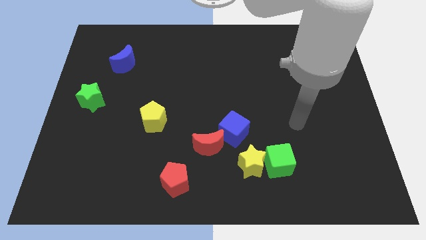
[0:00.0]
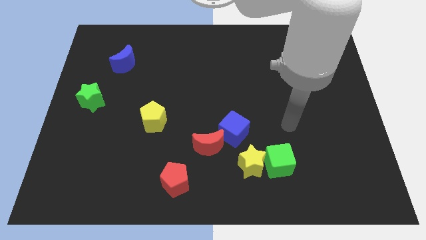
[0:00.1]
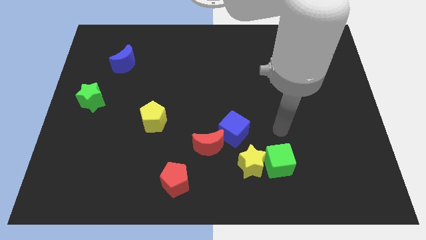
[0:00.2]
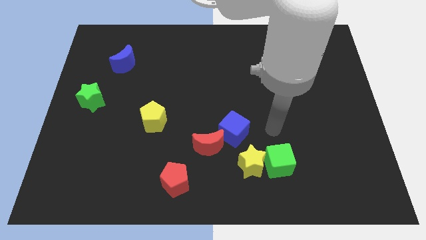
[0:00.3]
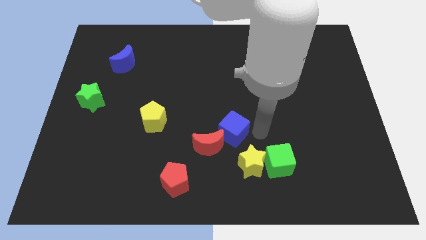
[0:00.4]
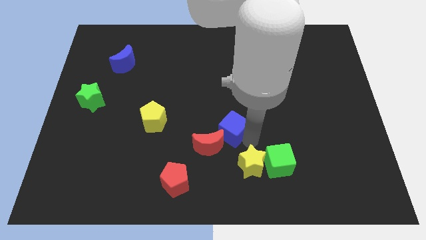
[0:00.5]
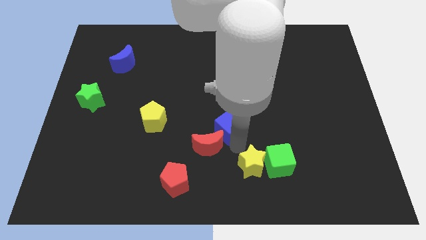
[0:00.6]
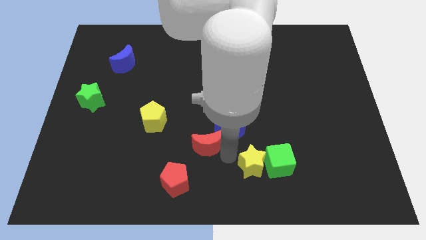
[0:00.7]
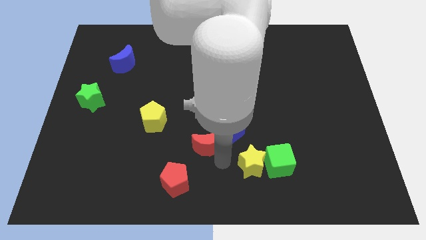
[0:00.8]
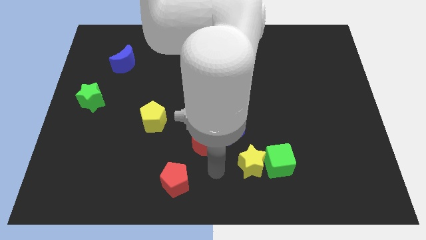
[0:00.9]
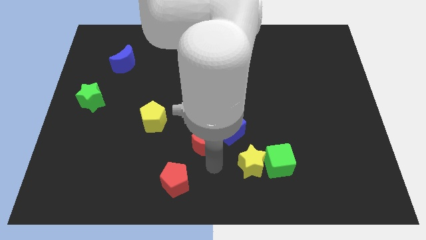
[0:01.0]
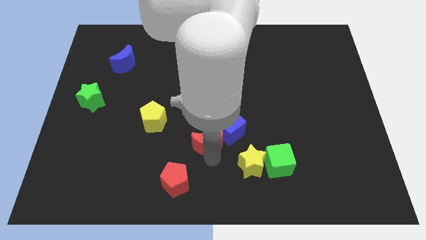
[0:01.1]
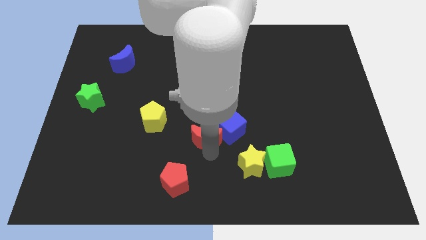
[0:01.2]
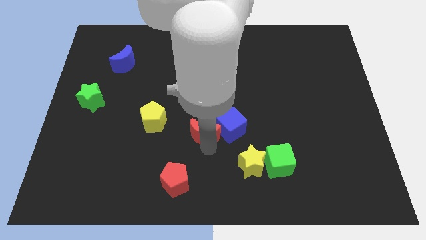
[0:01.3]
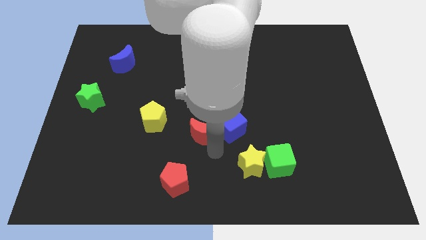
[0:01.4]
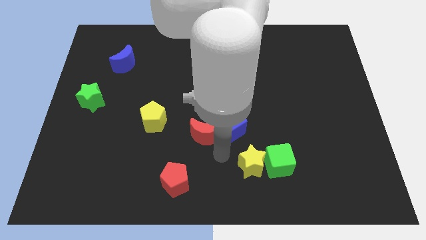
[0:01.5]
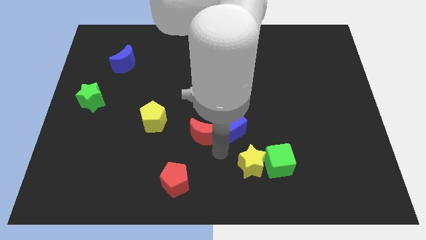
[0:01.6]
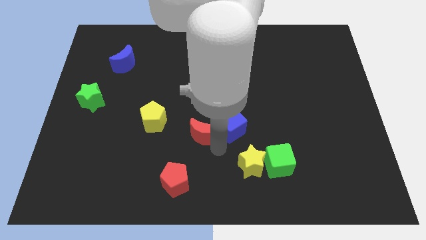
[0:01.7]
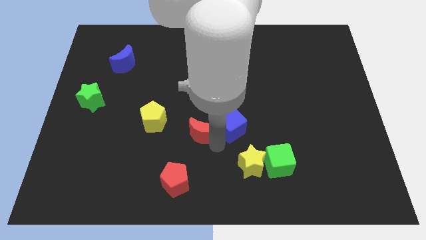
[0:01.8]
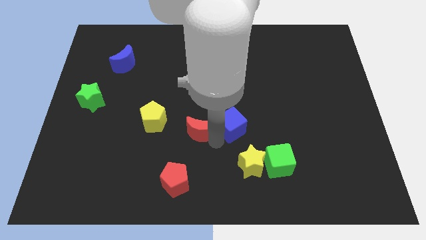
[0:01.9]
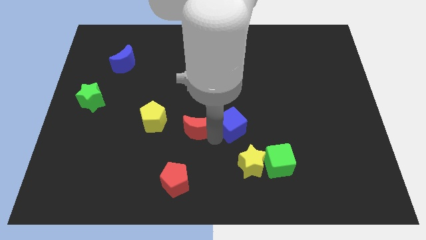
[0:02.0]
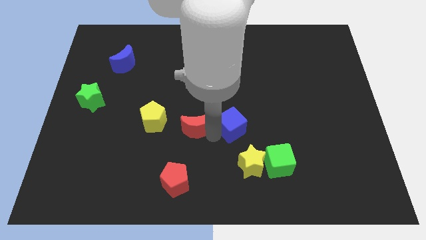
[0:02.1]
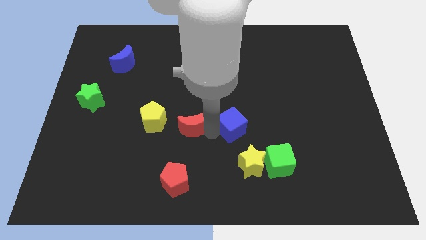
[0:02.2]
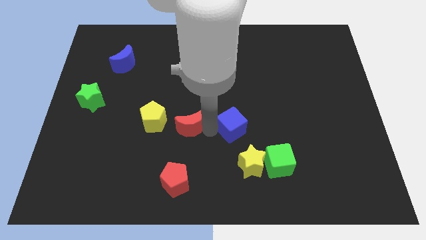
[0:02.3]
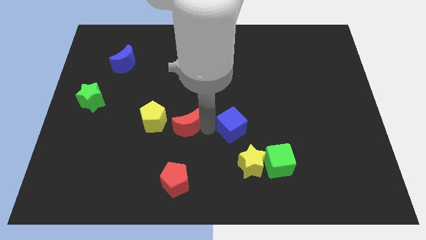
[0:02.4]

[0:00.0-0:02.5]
move the red moon up and left a little

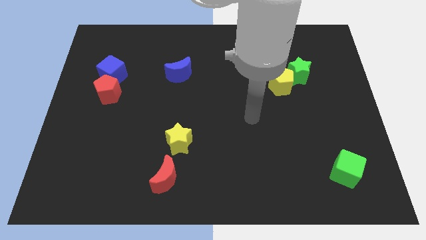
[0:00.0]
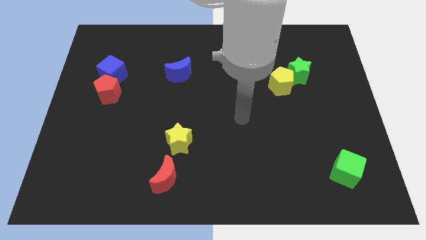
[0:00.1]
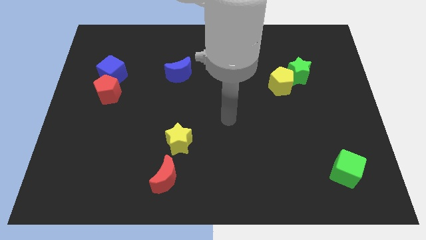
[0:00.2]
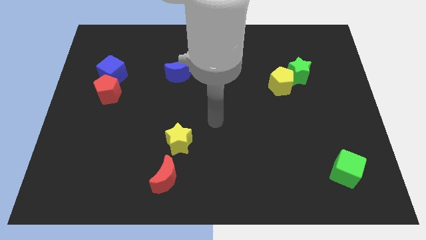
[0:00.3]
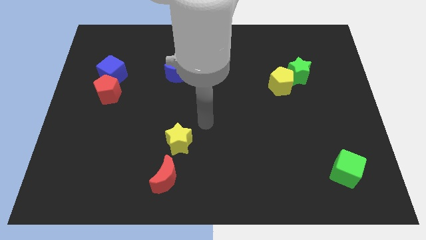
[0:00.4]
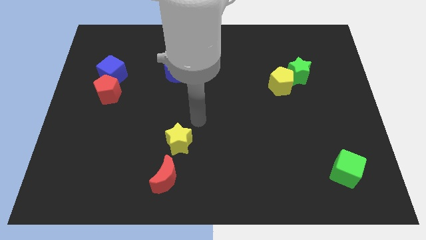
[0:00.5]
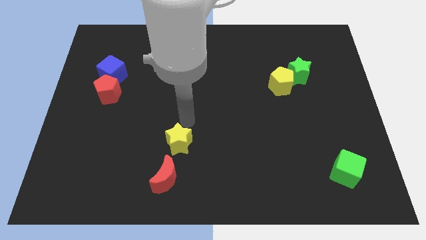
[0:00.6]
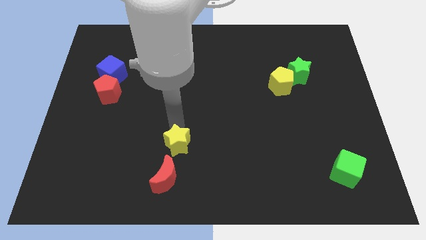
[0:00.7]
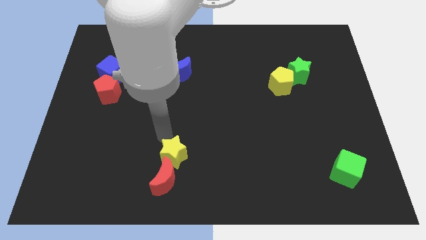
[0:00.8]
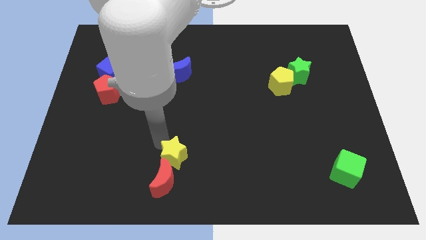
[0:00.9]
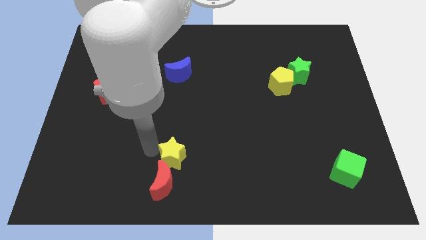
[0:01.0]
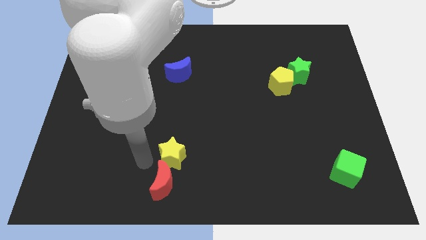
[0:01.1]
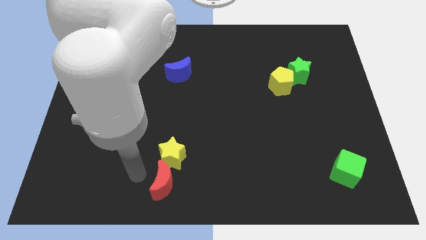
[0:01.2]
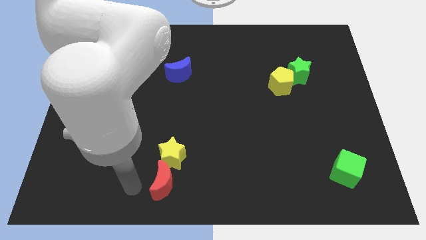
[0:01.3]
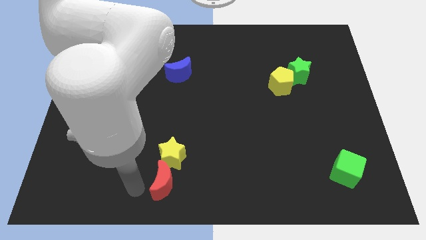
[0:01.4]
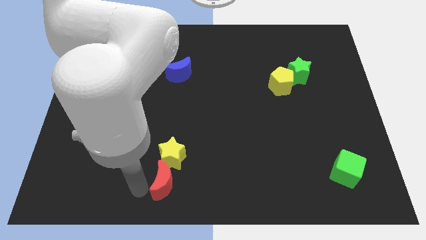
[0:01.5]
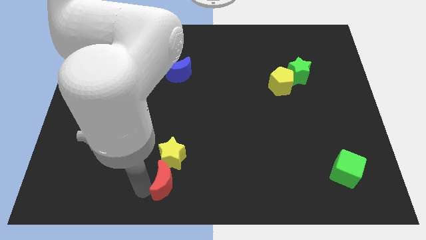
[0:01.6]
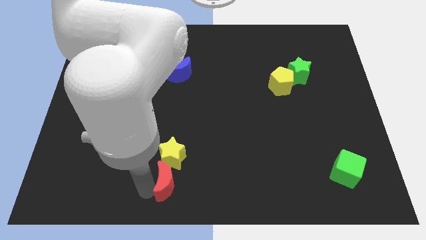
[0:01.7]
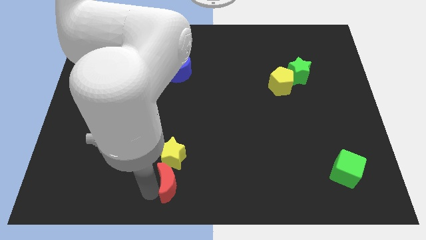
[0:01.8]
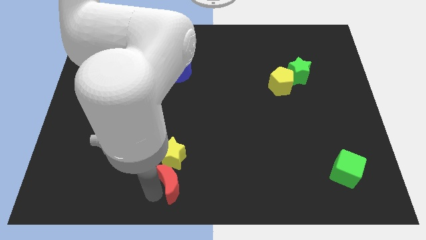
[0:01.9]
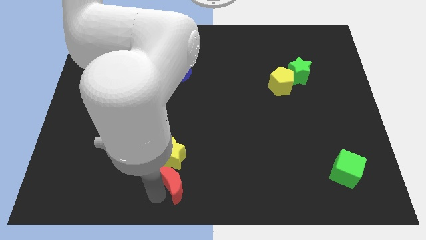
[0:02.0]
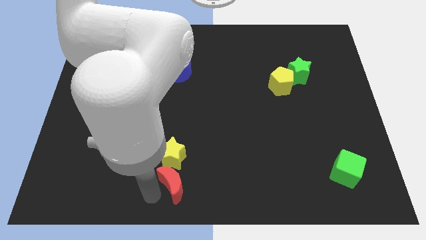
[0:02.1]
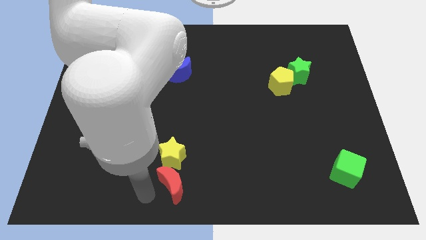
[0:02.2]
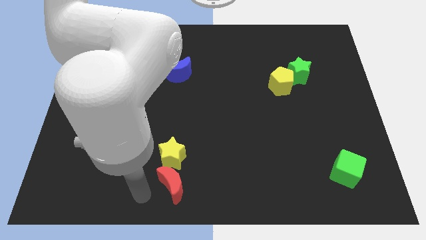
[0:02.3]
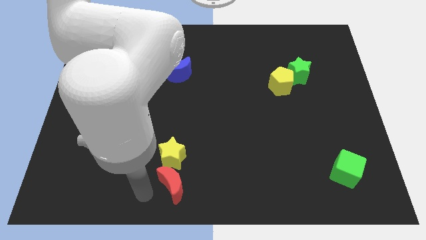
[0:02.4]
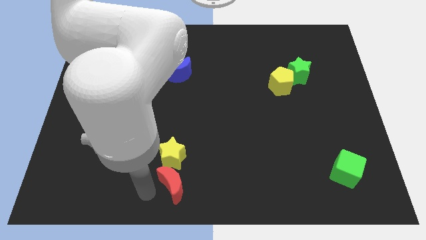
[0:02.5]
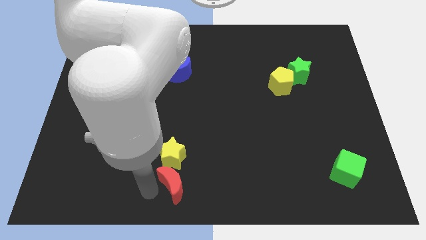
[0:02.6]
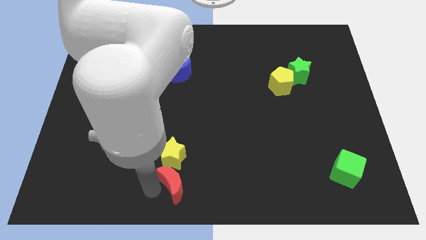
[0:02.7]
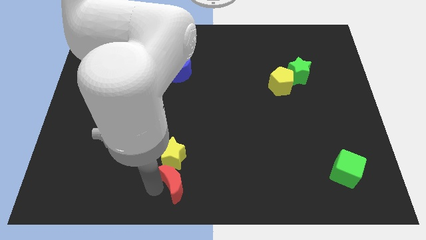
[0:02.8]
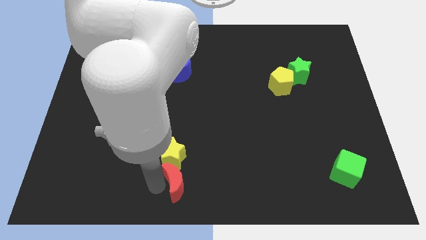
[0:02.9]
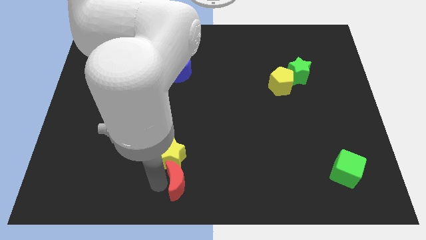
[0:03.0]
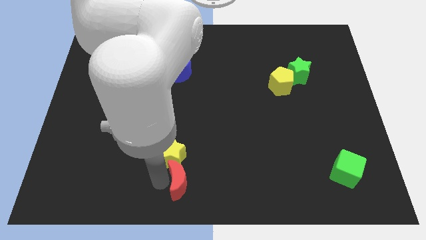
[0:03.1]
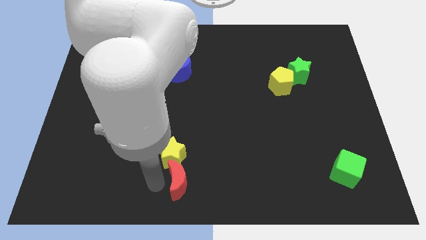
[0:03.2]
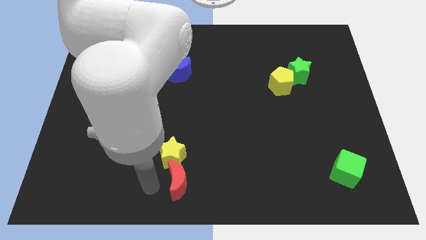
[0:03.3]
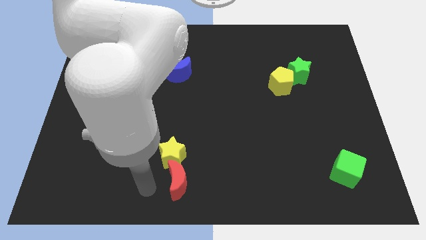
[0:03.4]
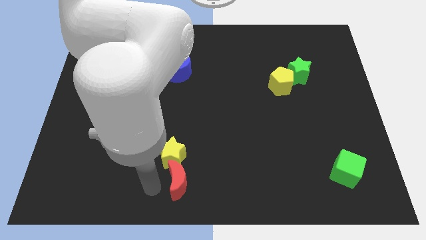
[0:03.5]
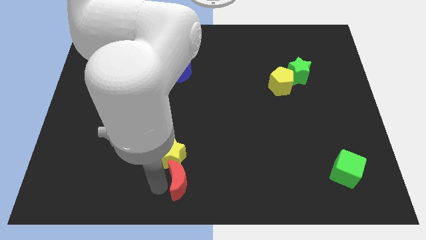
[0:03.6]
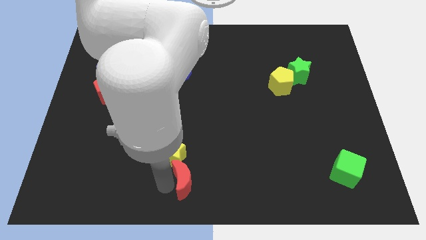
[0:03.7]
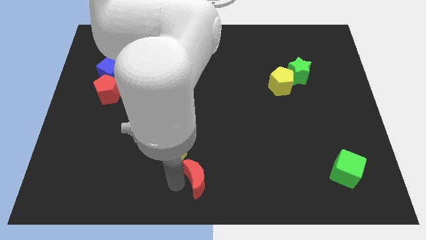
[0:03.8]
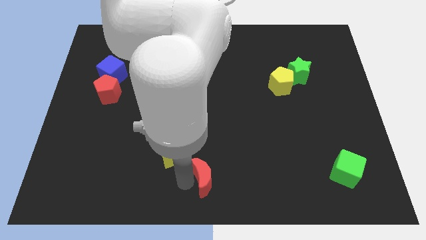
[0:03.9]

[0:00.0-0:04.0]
push the red moon to the right a little

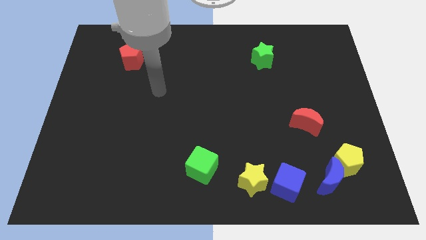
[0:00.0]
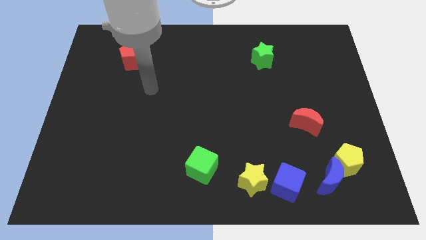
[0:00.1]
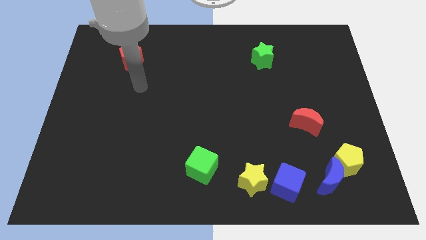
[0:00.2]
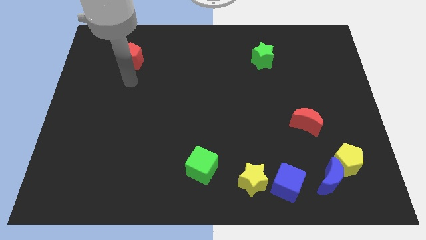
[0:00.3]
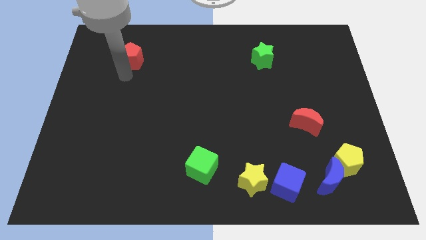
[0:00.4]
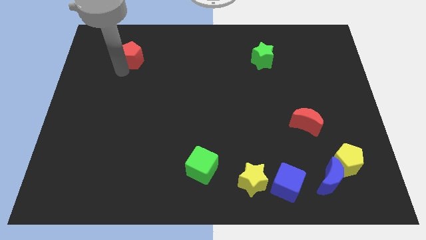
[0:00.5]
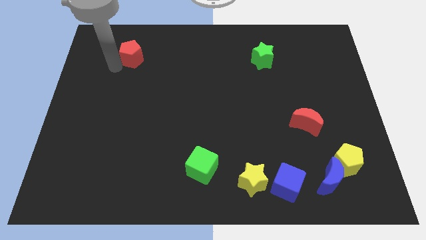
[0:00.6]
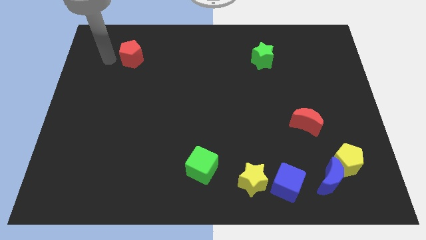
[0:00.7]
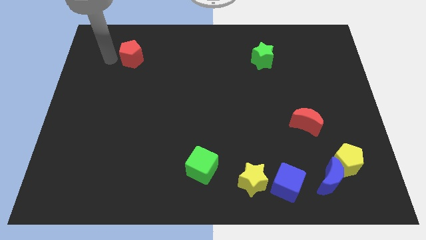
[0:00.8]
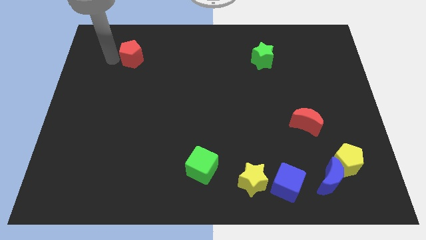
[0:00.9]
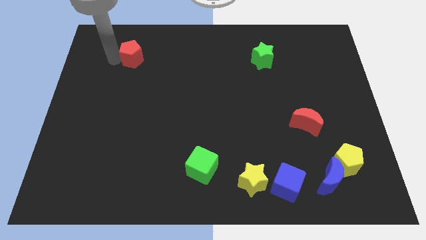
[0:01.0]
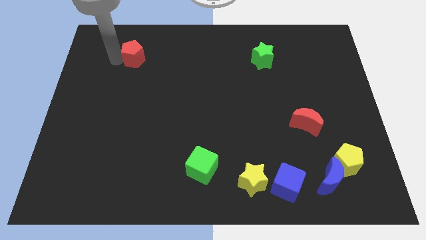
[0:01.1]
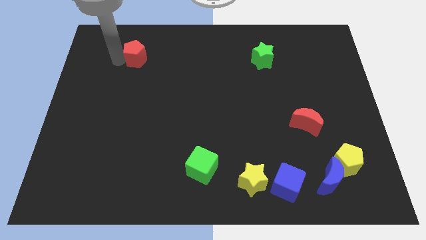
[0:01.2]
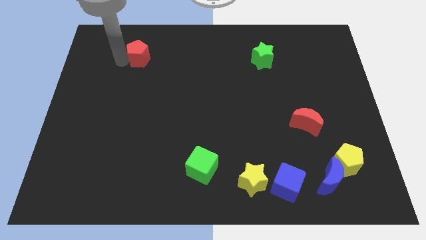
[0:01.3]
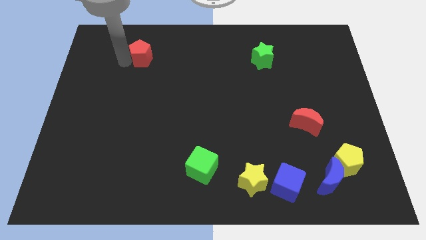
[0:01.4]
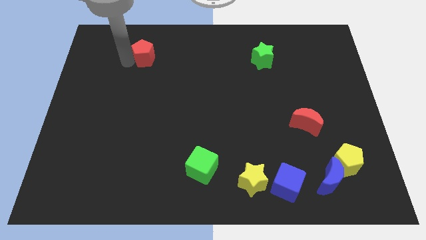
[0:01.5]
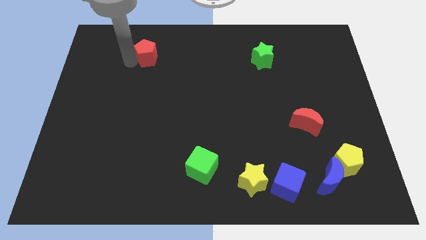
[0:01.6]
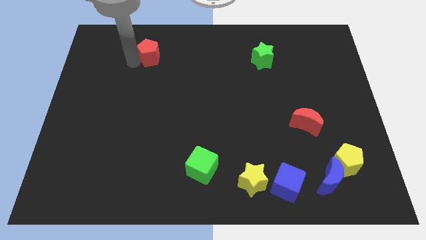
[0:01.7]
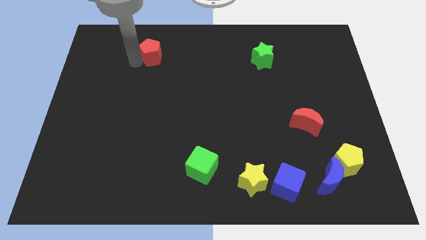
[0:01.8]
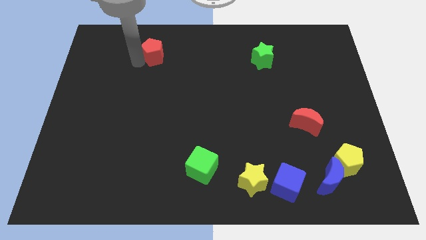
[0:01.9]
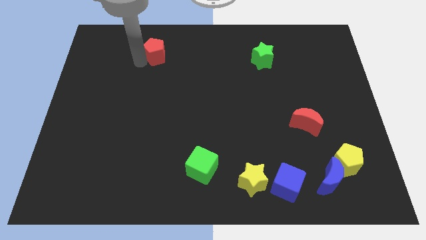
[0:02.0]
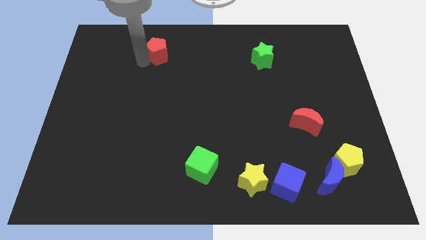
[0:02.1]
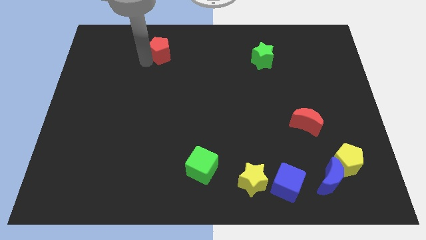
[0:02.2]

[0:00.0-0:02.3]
slightly push the red pentagon to the right
